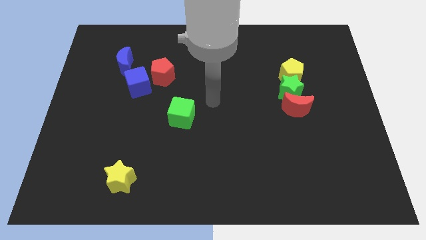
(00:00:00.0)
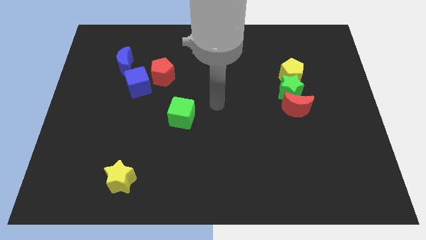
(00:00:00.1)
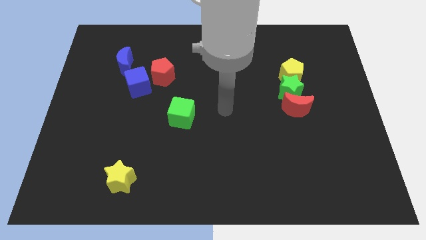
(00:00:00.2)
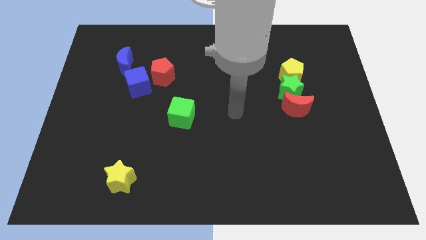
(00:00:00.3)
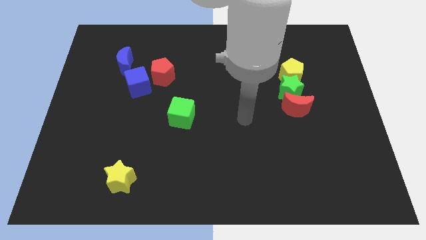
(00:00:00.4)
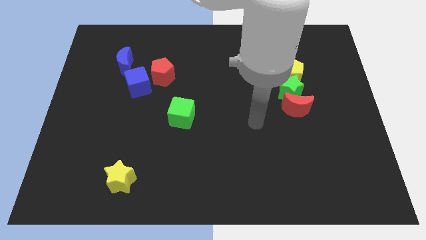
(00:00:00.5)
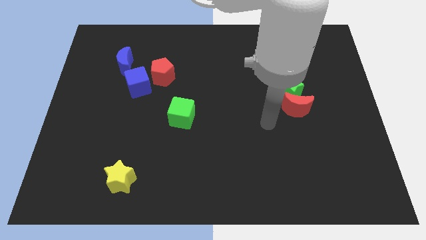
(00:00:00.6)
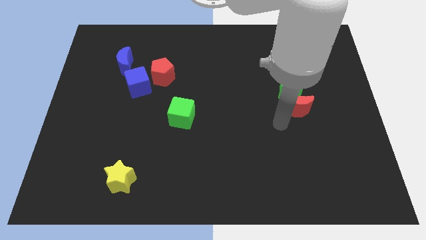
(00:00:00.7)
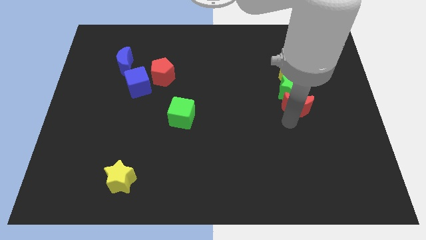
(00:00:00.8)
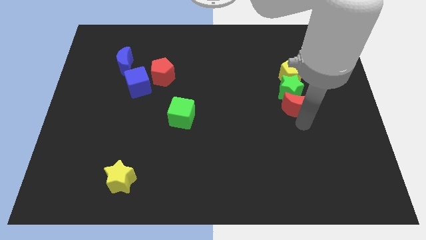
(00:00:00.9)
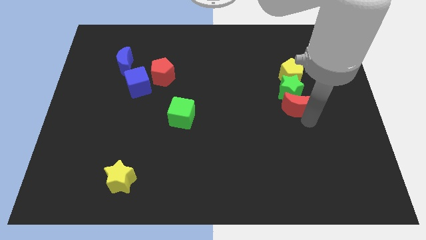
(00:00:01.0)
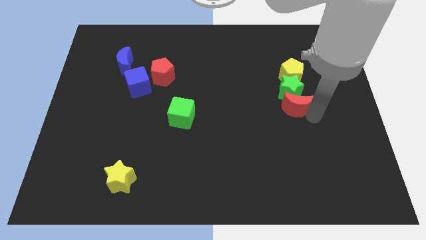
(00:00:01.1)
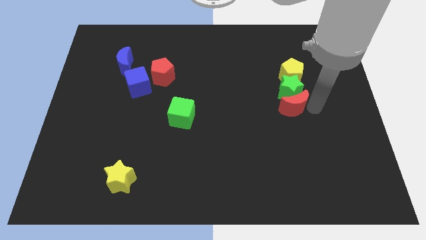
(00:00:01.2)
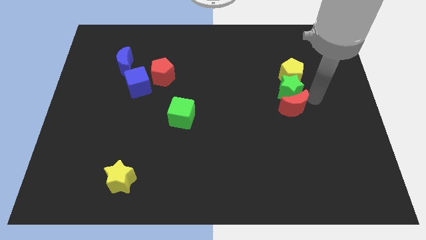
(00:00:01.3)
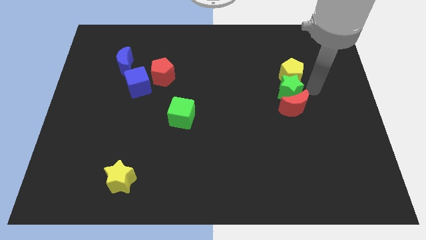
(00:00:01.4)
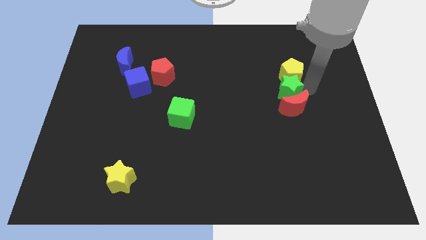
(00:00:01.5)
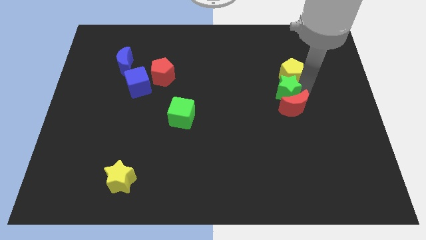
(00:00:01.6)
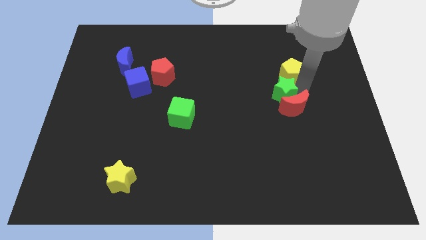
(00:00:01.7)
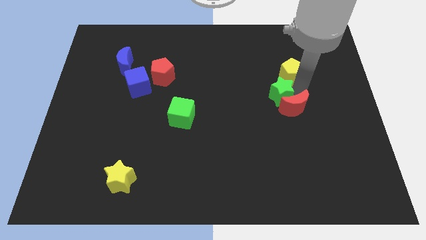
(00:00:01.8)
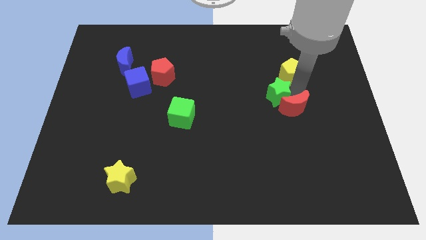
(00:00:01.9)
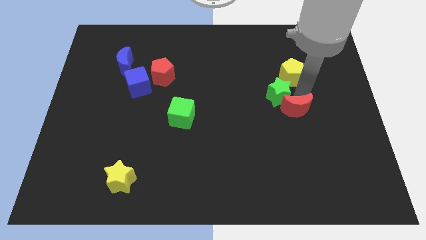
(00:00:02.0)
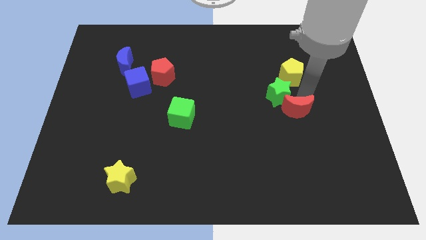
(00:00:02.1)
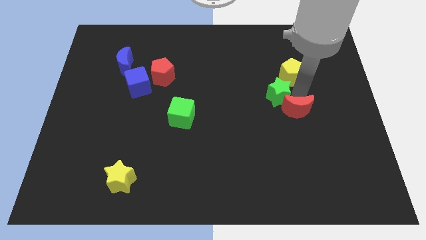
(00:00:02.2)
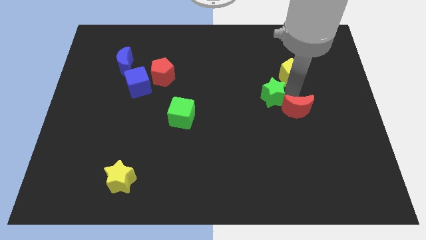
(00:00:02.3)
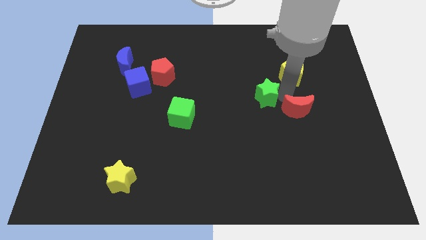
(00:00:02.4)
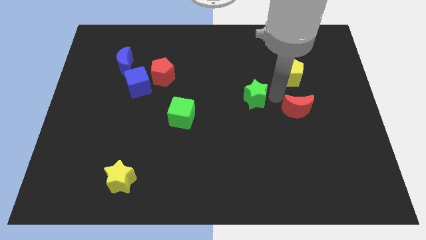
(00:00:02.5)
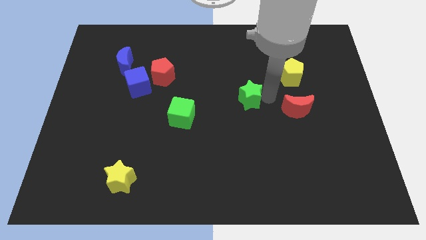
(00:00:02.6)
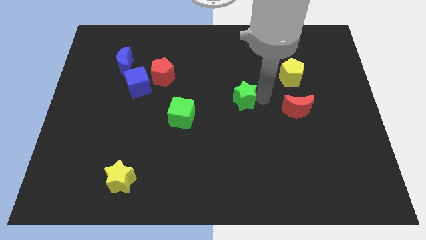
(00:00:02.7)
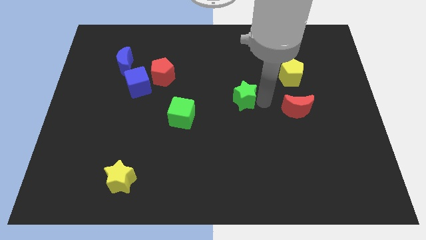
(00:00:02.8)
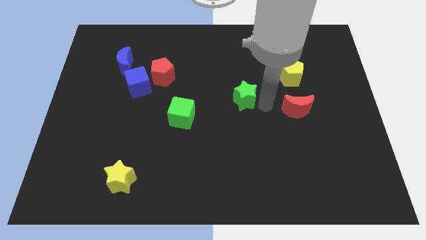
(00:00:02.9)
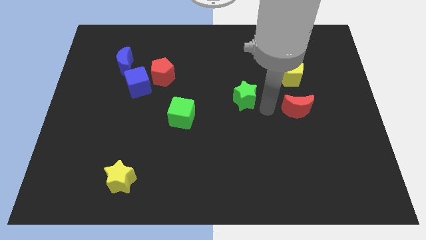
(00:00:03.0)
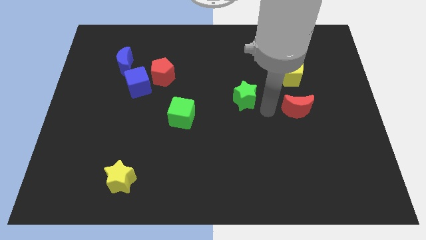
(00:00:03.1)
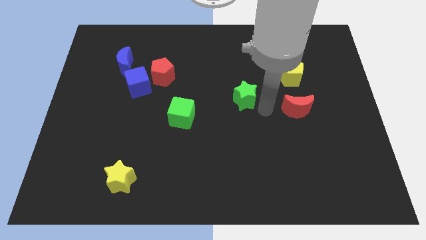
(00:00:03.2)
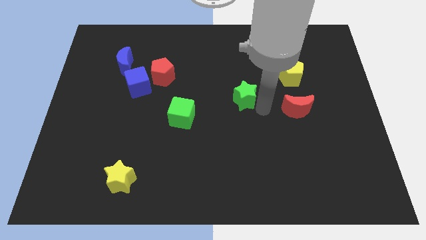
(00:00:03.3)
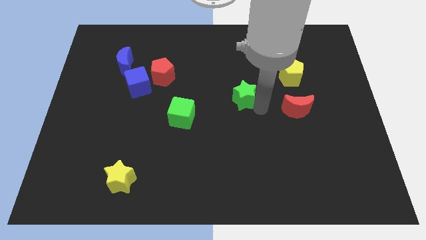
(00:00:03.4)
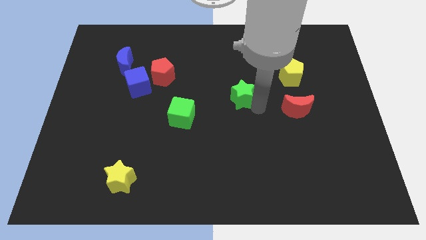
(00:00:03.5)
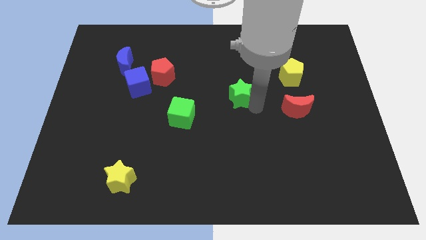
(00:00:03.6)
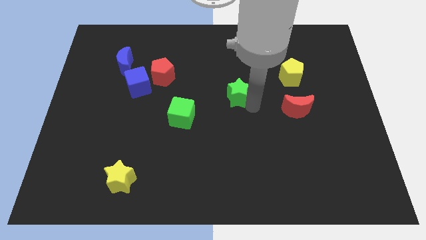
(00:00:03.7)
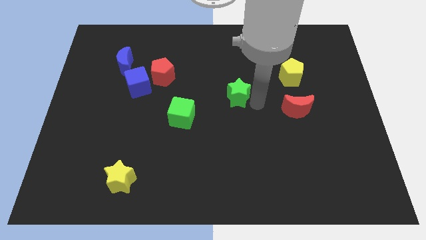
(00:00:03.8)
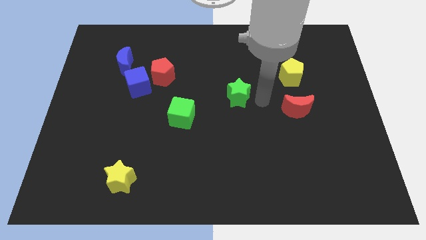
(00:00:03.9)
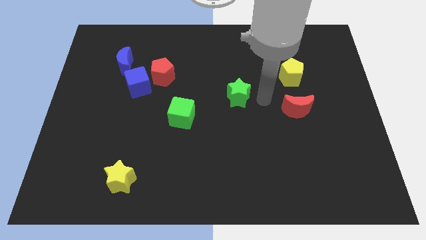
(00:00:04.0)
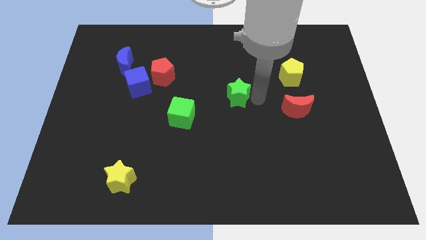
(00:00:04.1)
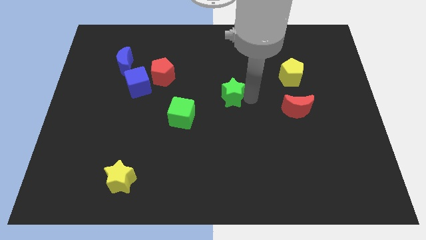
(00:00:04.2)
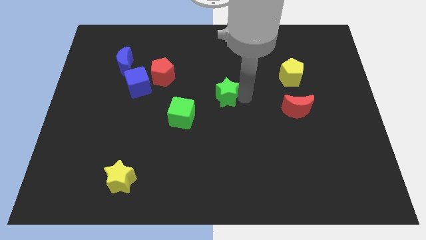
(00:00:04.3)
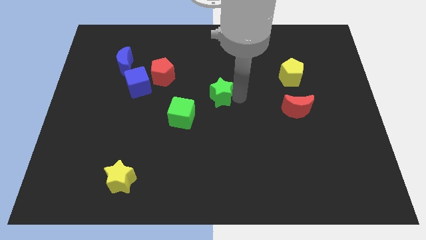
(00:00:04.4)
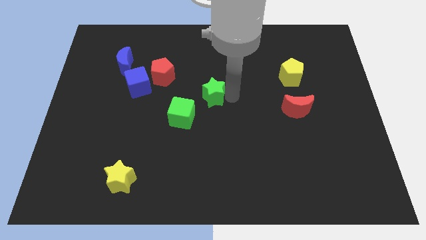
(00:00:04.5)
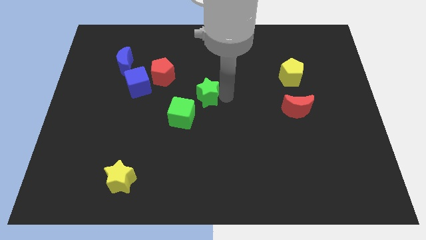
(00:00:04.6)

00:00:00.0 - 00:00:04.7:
move the green star to the left

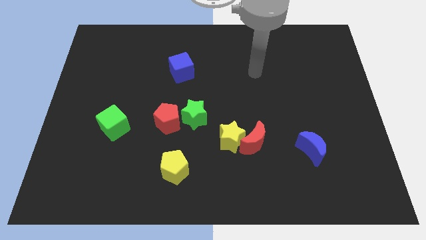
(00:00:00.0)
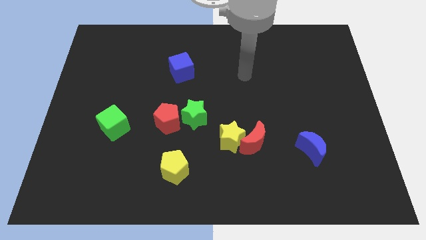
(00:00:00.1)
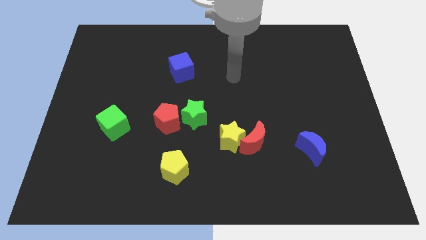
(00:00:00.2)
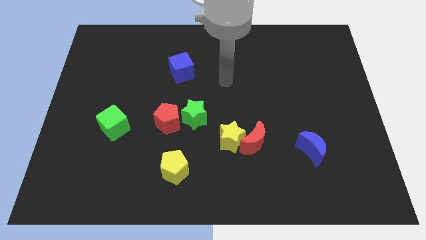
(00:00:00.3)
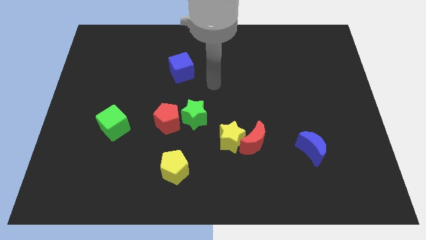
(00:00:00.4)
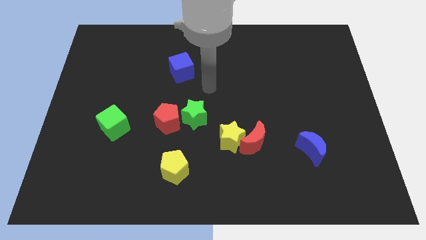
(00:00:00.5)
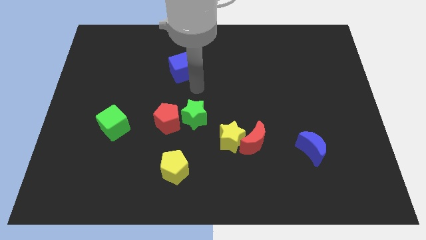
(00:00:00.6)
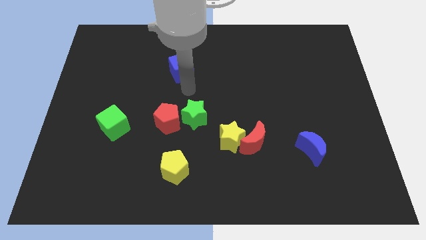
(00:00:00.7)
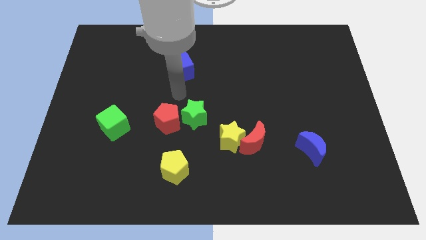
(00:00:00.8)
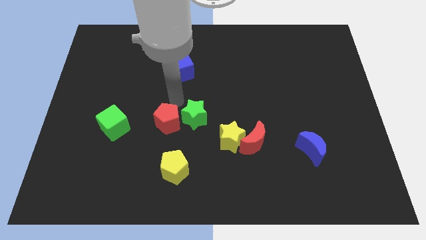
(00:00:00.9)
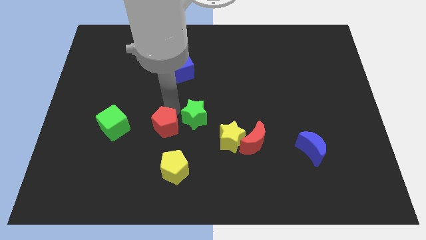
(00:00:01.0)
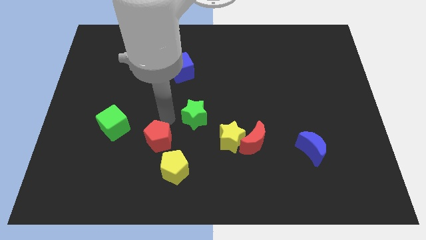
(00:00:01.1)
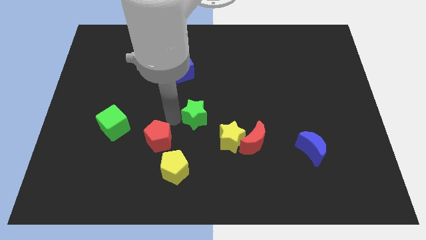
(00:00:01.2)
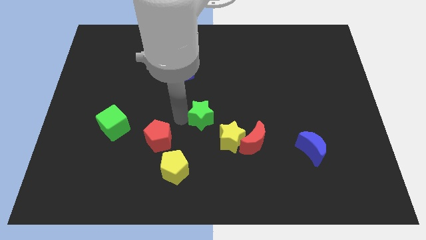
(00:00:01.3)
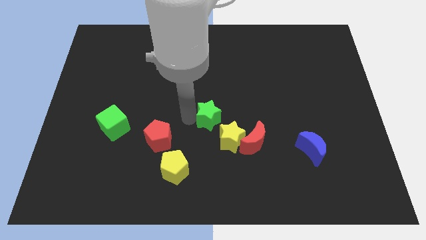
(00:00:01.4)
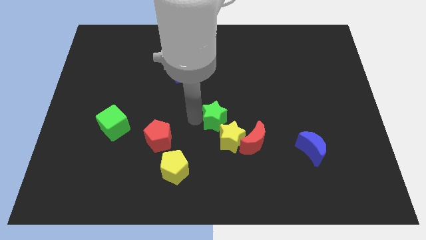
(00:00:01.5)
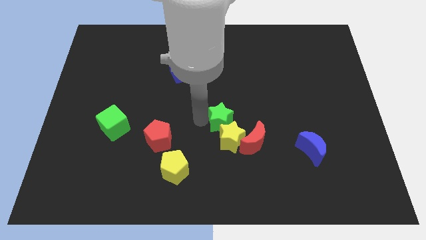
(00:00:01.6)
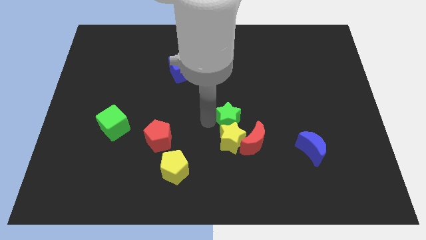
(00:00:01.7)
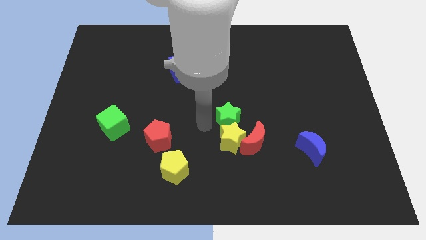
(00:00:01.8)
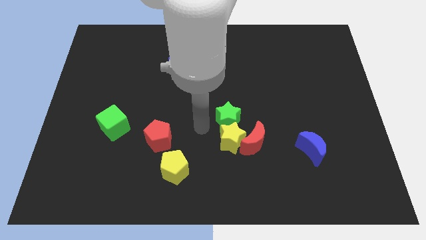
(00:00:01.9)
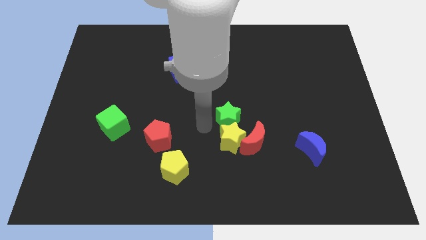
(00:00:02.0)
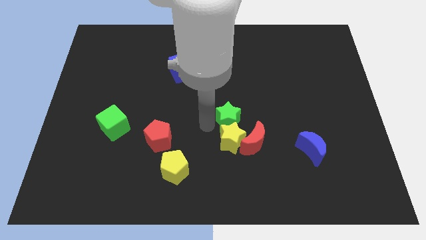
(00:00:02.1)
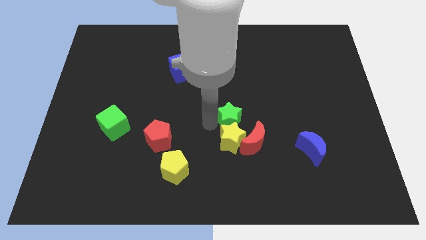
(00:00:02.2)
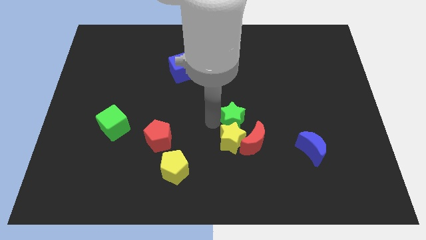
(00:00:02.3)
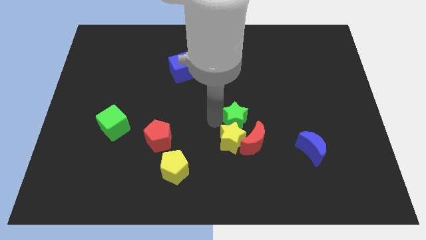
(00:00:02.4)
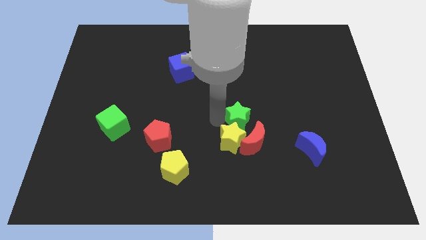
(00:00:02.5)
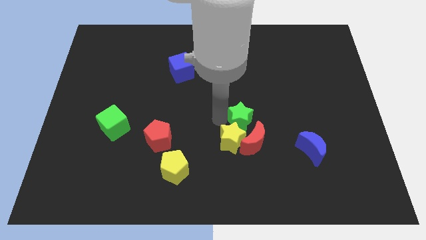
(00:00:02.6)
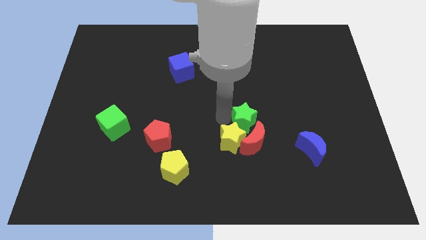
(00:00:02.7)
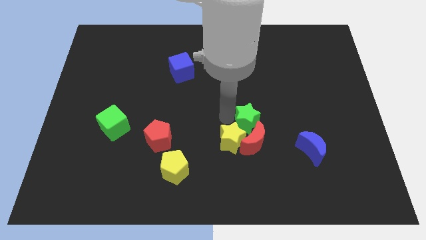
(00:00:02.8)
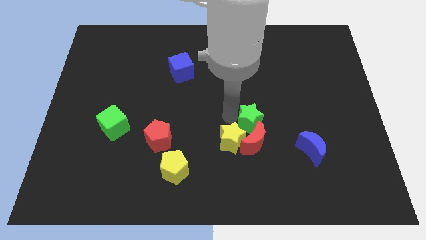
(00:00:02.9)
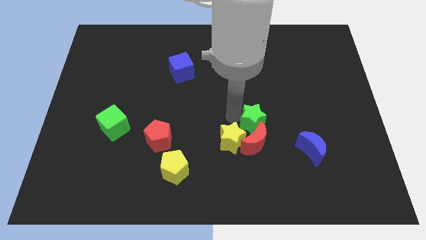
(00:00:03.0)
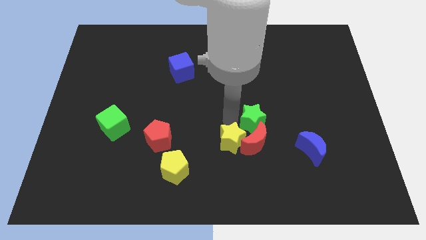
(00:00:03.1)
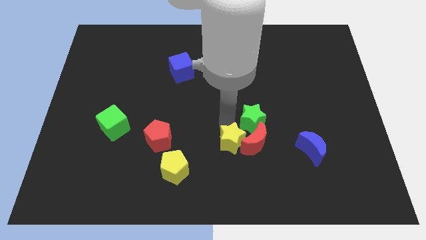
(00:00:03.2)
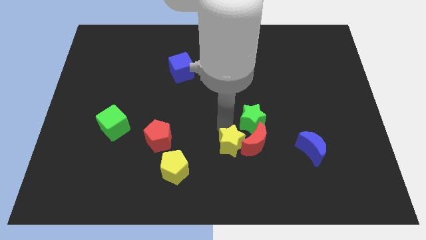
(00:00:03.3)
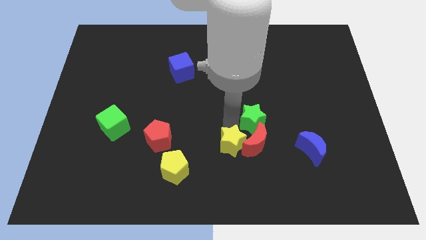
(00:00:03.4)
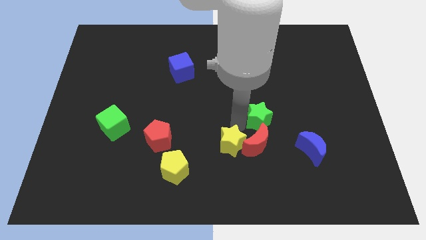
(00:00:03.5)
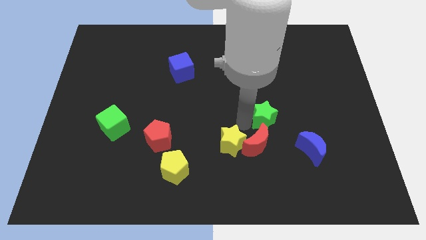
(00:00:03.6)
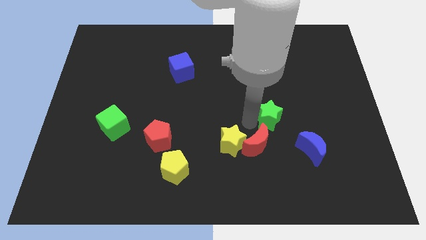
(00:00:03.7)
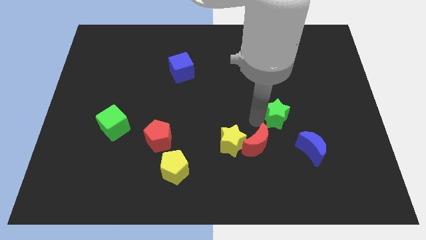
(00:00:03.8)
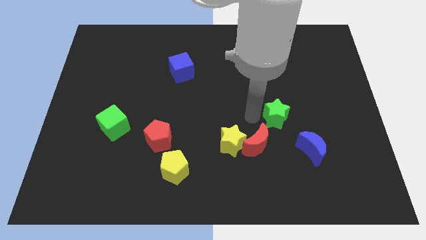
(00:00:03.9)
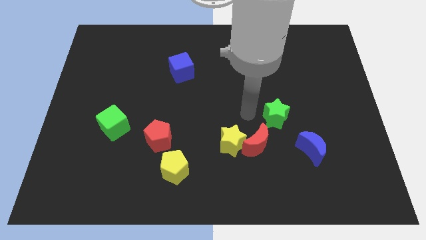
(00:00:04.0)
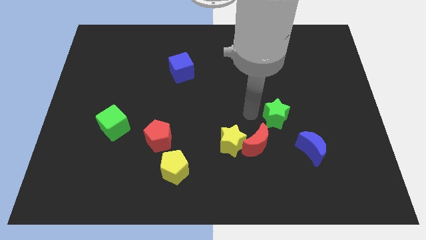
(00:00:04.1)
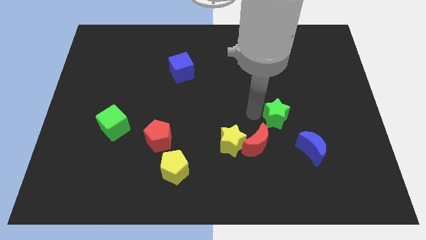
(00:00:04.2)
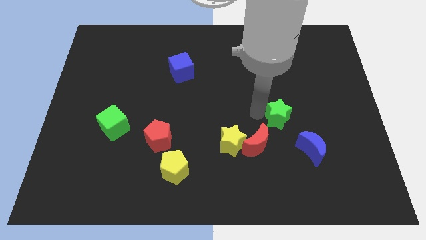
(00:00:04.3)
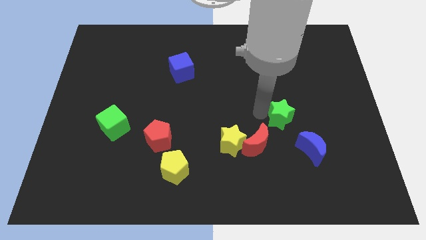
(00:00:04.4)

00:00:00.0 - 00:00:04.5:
move the green star right
